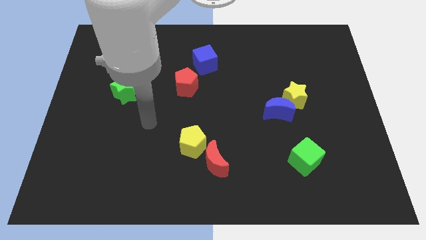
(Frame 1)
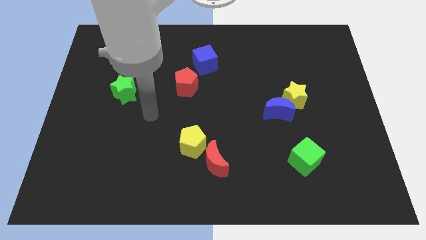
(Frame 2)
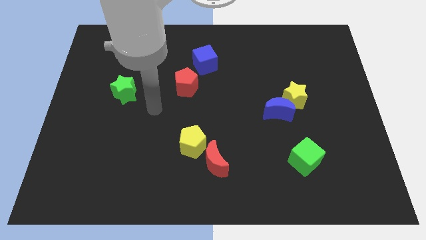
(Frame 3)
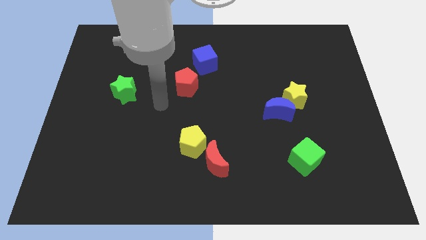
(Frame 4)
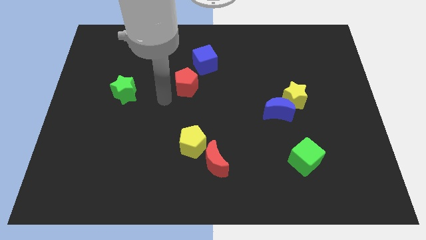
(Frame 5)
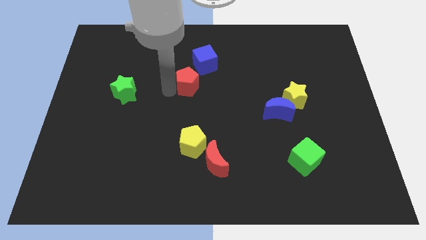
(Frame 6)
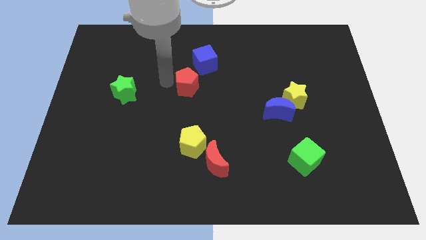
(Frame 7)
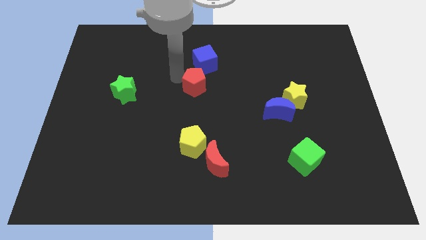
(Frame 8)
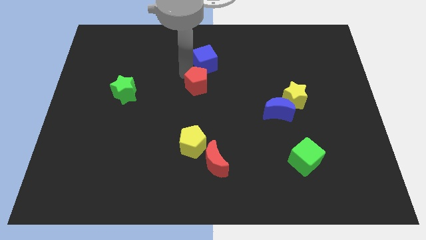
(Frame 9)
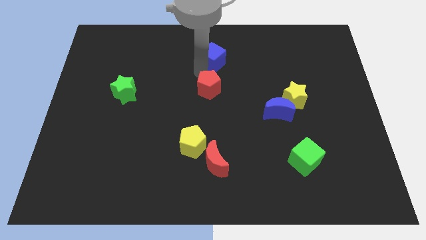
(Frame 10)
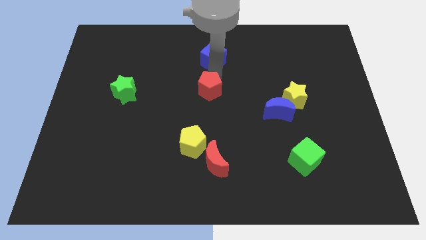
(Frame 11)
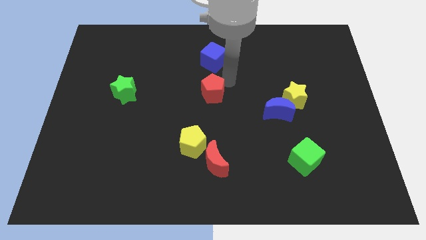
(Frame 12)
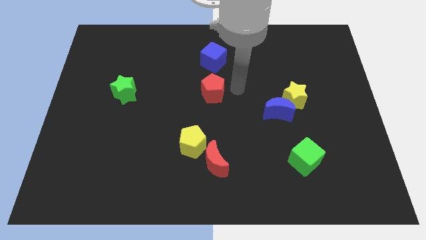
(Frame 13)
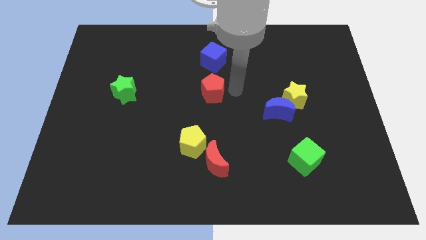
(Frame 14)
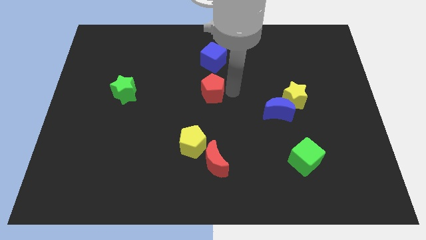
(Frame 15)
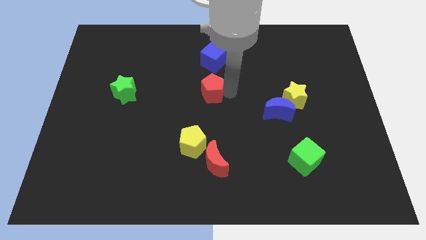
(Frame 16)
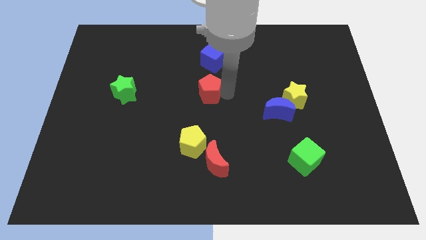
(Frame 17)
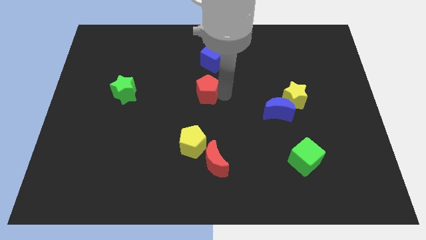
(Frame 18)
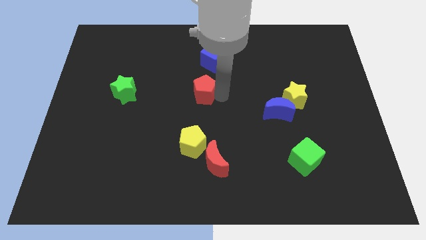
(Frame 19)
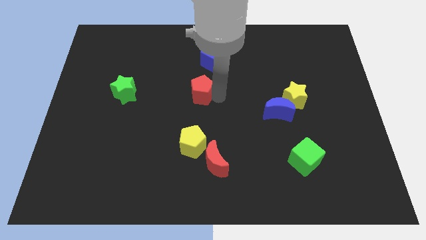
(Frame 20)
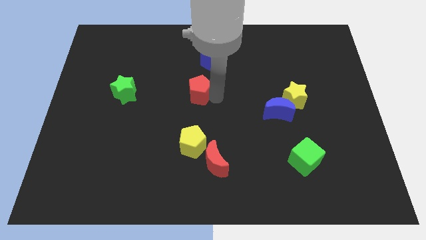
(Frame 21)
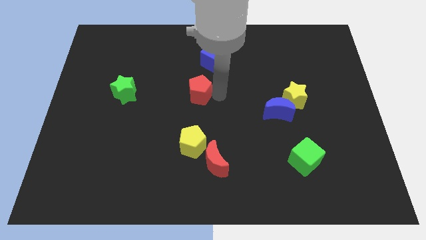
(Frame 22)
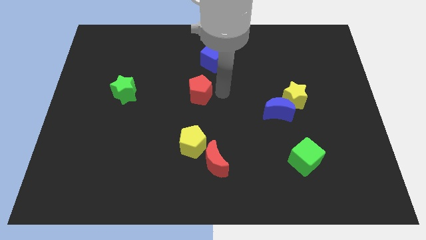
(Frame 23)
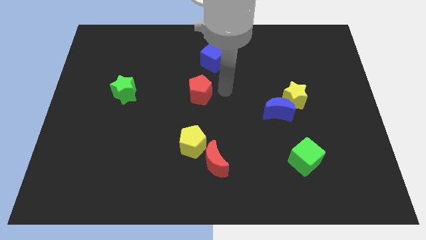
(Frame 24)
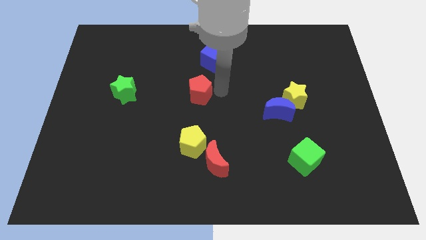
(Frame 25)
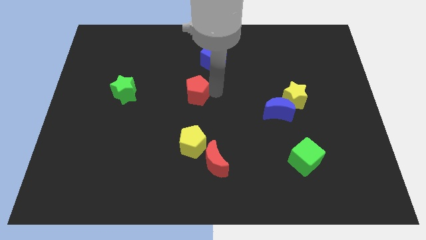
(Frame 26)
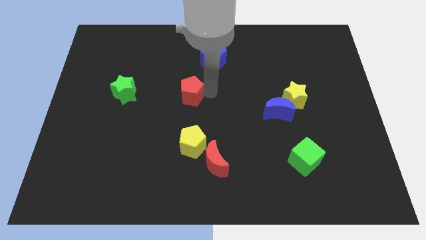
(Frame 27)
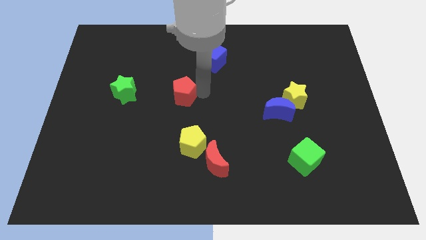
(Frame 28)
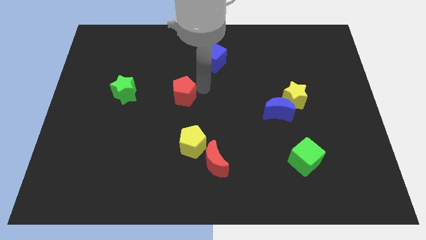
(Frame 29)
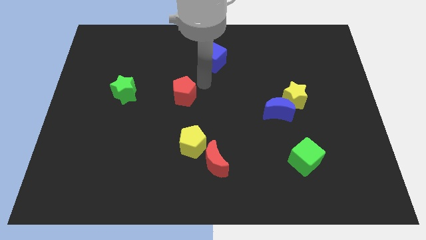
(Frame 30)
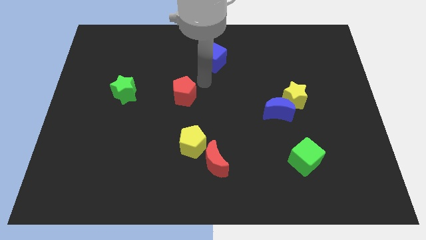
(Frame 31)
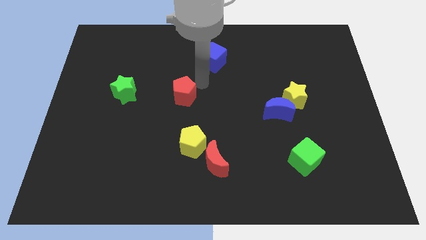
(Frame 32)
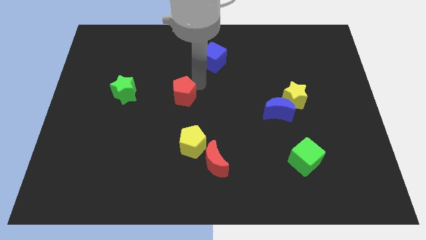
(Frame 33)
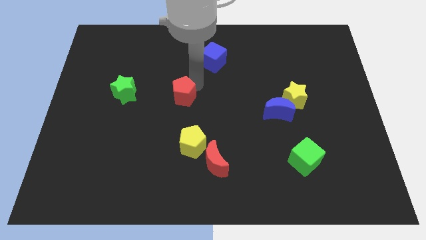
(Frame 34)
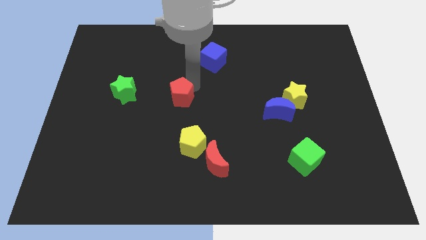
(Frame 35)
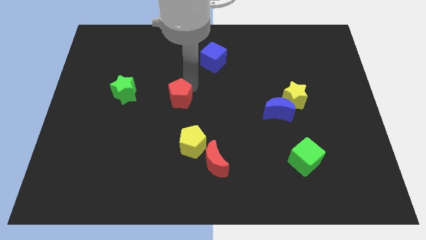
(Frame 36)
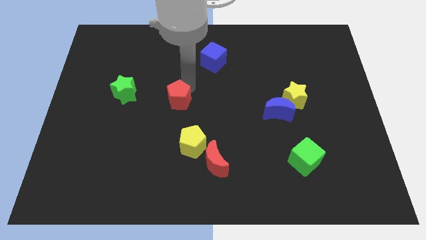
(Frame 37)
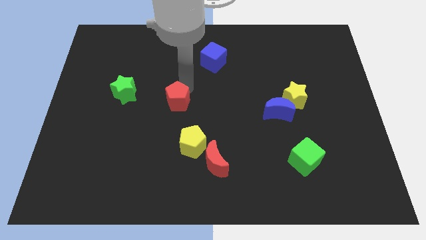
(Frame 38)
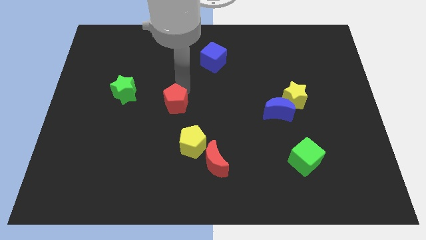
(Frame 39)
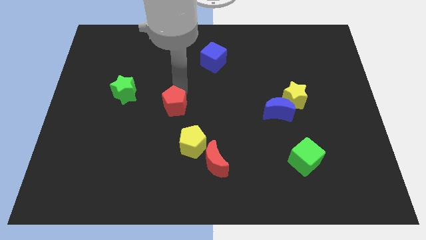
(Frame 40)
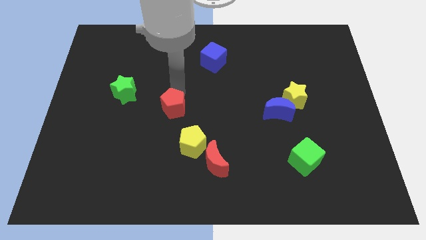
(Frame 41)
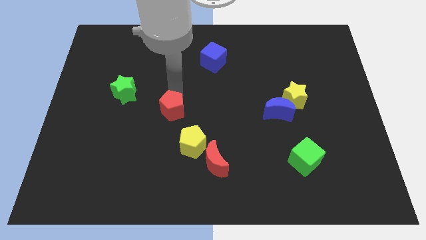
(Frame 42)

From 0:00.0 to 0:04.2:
push the red pentagon down and then to the left a little bit

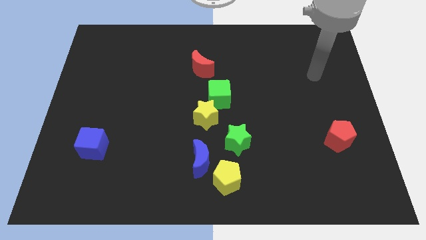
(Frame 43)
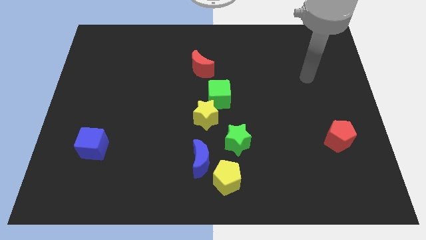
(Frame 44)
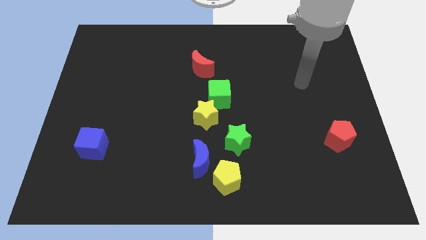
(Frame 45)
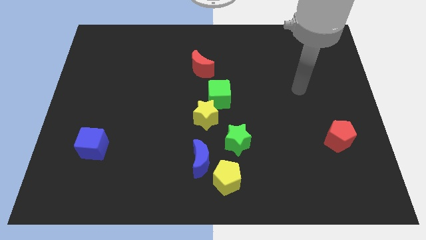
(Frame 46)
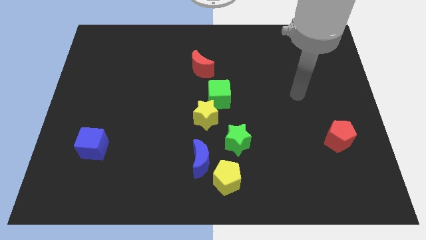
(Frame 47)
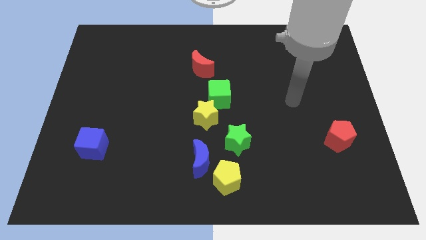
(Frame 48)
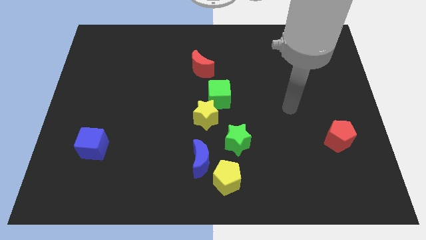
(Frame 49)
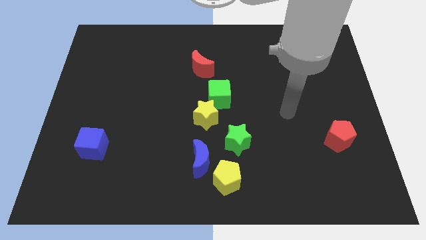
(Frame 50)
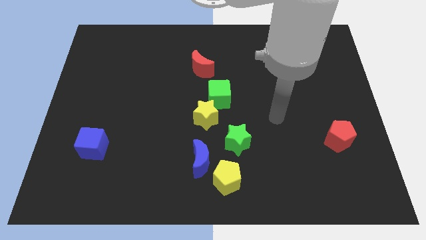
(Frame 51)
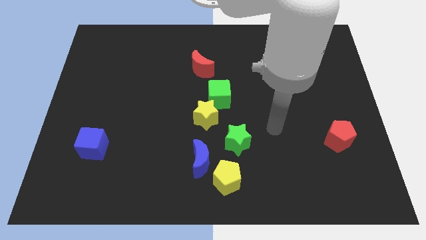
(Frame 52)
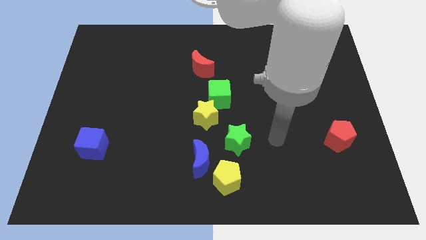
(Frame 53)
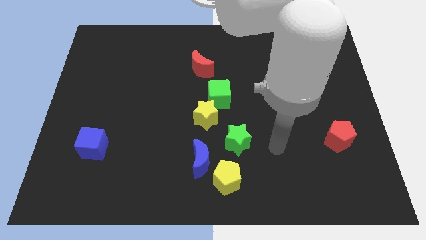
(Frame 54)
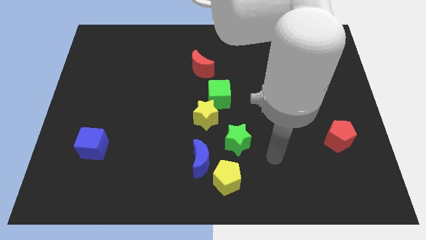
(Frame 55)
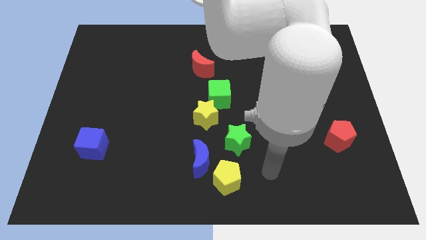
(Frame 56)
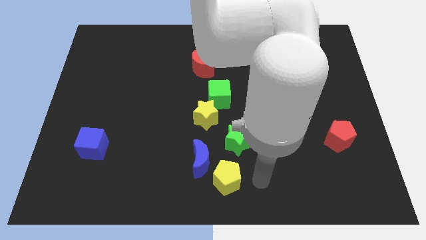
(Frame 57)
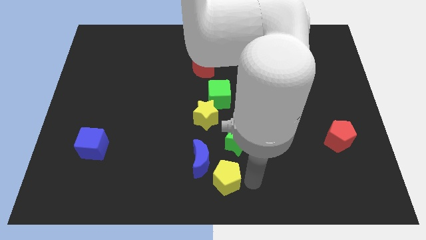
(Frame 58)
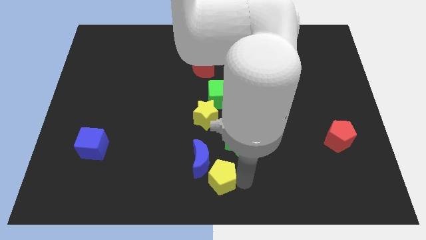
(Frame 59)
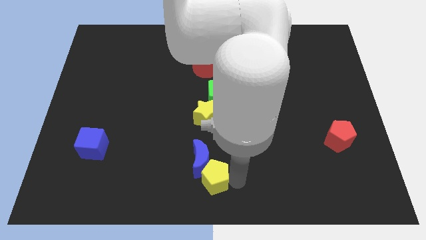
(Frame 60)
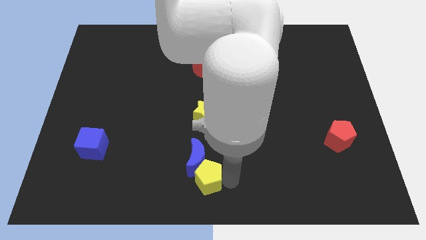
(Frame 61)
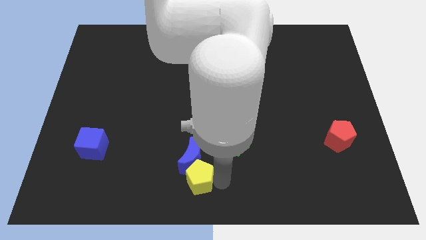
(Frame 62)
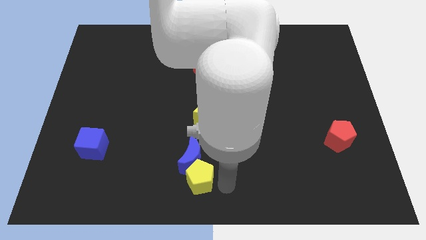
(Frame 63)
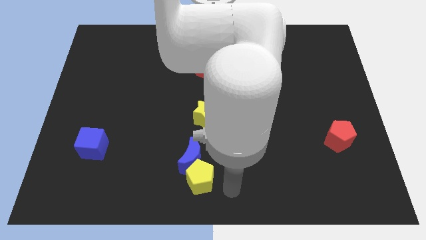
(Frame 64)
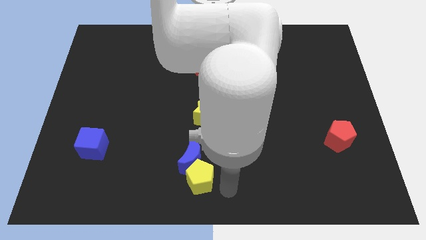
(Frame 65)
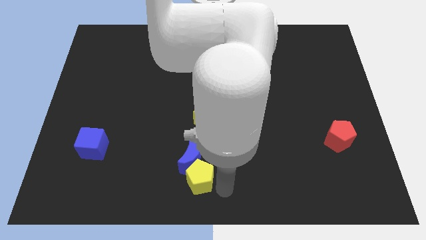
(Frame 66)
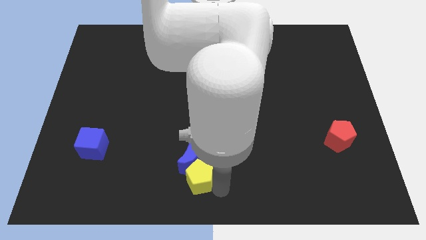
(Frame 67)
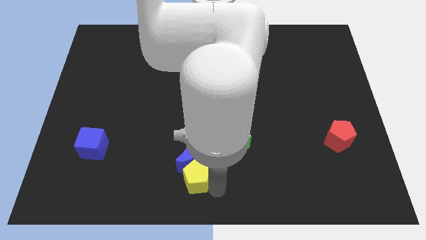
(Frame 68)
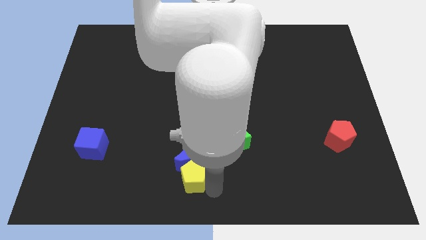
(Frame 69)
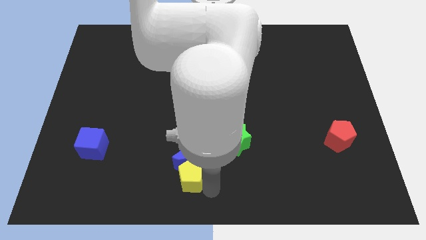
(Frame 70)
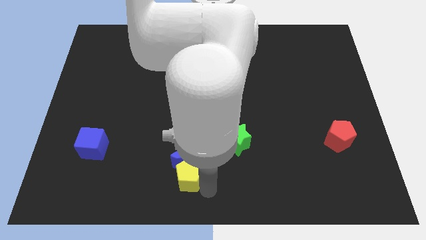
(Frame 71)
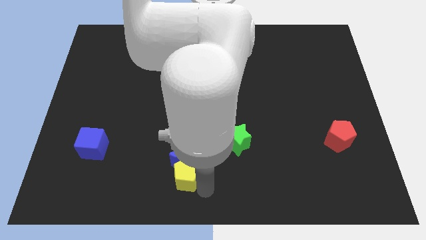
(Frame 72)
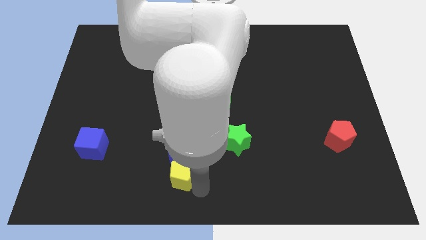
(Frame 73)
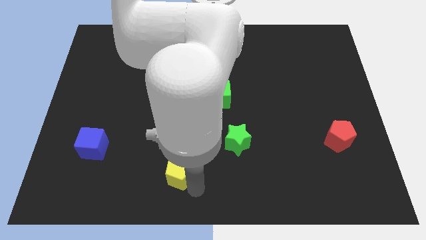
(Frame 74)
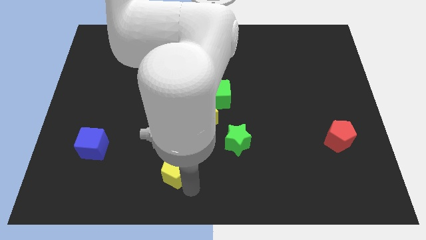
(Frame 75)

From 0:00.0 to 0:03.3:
move the yellow pentagon up and then left a bit
